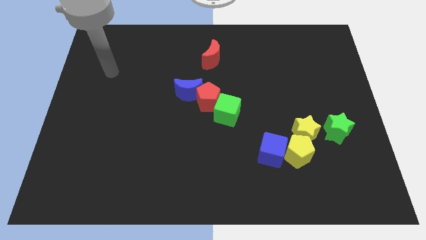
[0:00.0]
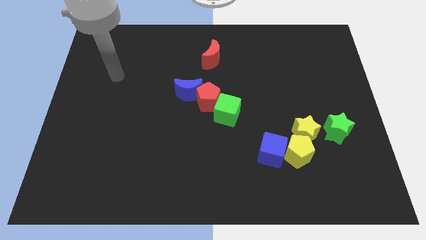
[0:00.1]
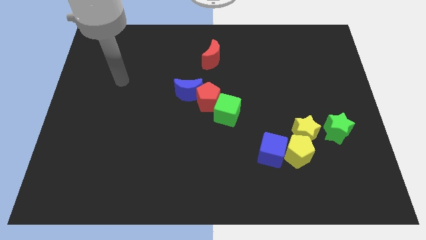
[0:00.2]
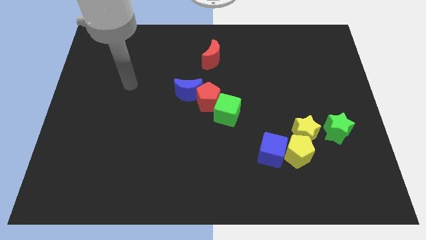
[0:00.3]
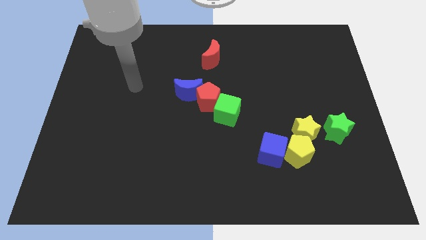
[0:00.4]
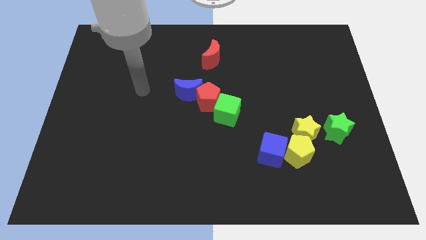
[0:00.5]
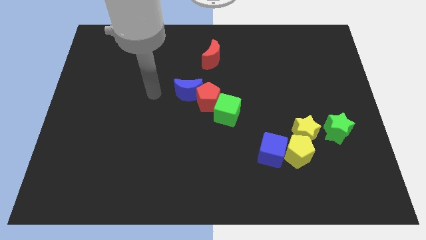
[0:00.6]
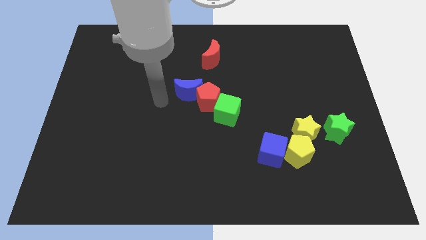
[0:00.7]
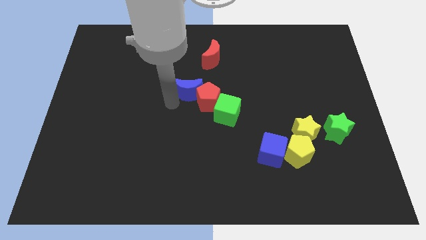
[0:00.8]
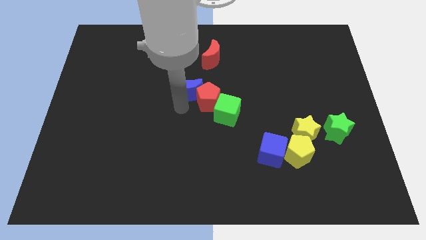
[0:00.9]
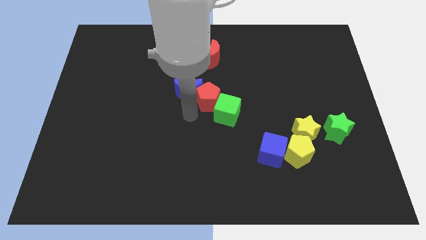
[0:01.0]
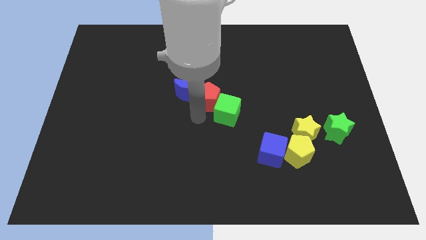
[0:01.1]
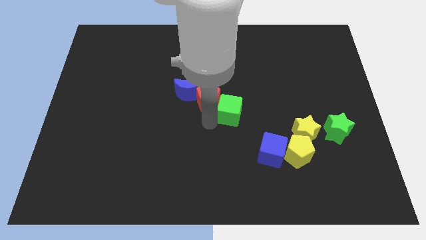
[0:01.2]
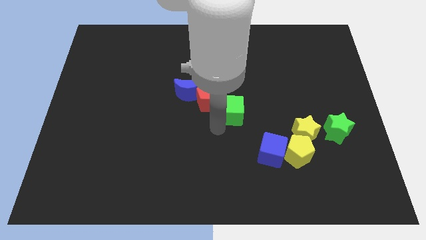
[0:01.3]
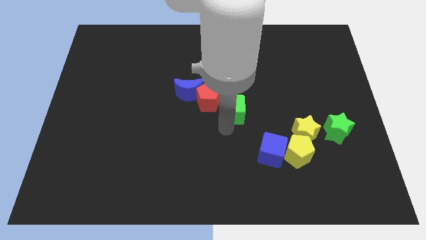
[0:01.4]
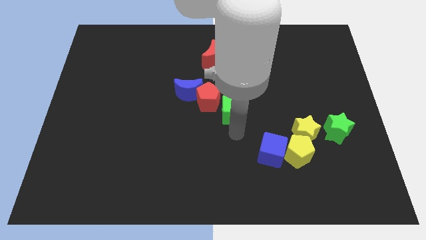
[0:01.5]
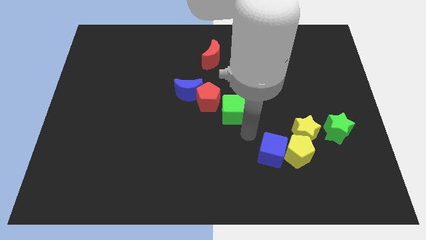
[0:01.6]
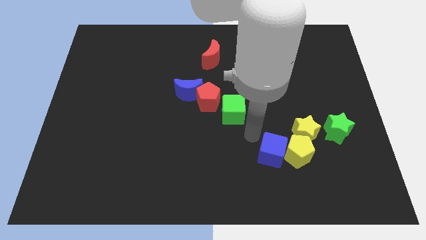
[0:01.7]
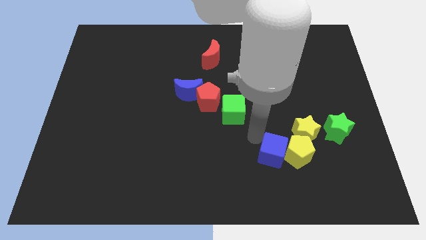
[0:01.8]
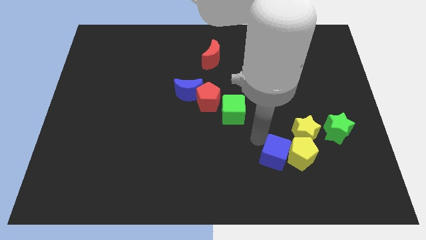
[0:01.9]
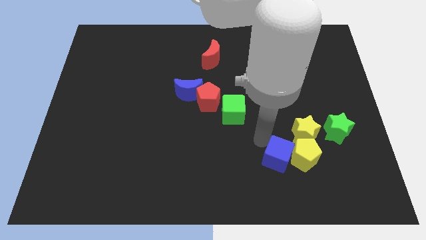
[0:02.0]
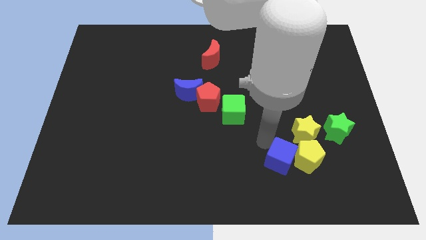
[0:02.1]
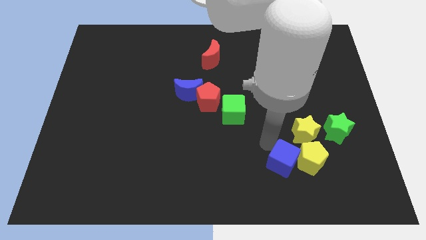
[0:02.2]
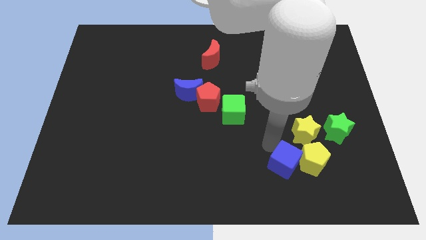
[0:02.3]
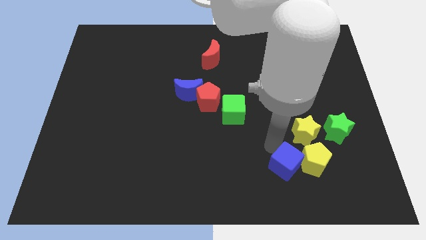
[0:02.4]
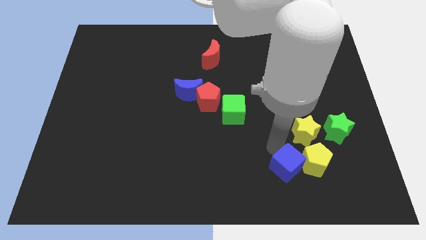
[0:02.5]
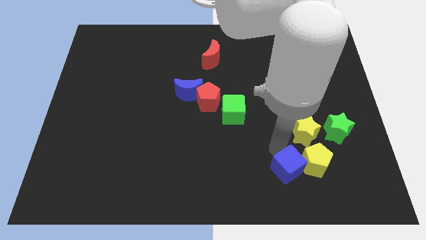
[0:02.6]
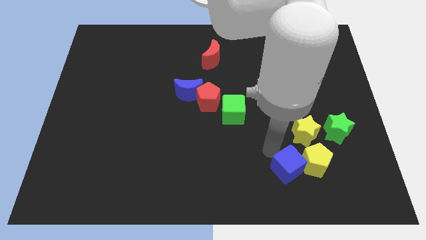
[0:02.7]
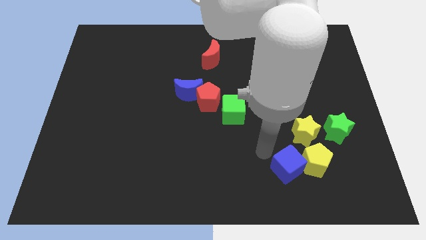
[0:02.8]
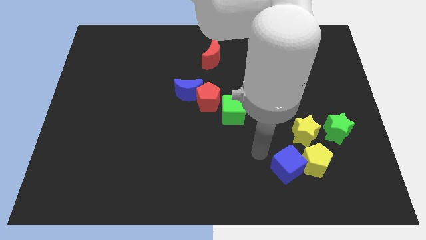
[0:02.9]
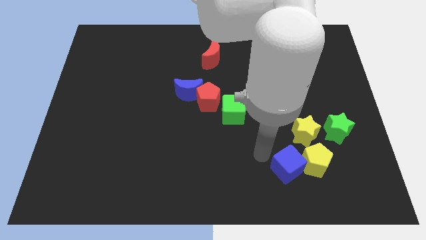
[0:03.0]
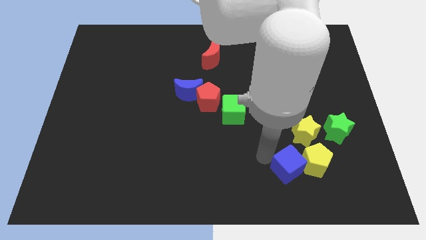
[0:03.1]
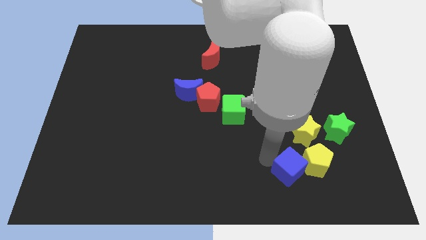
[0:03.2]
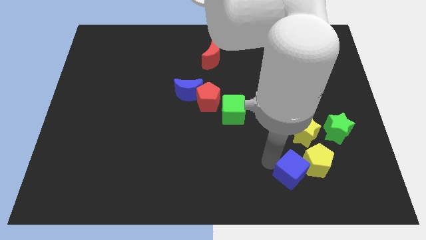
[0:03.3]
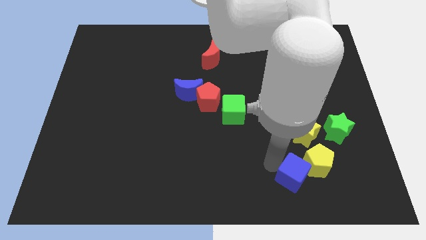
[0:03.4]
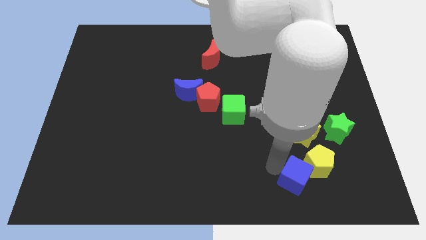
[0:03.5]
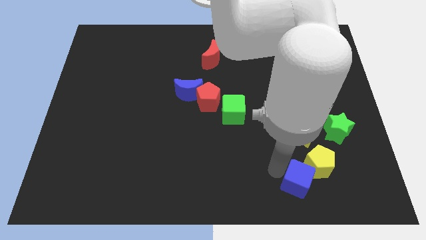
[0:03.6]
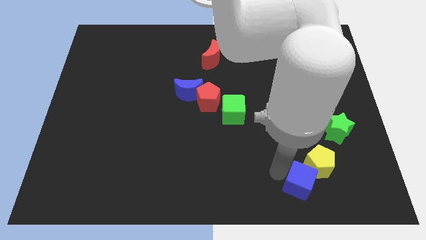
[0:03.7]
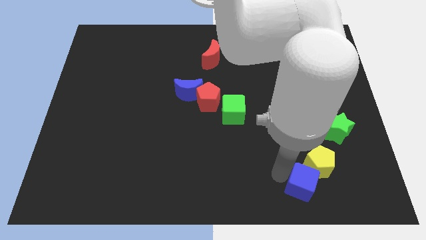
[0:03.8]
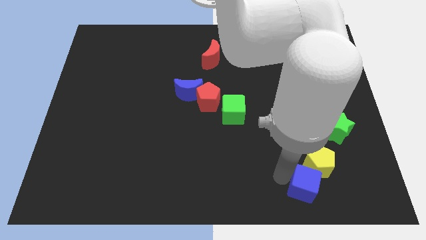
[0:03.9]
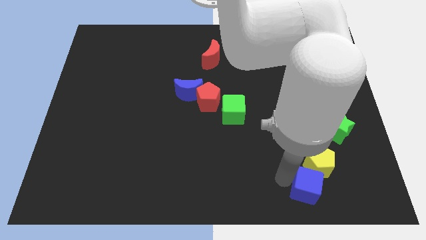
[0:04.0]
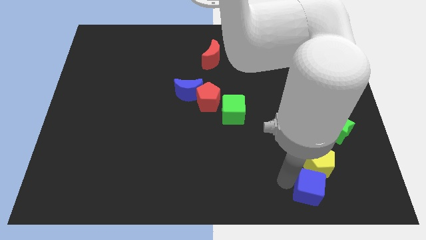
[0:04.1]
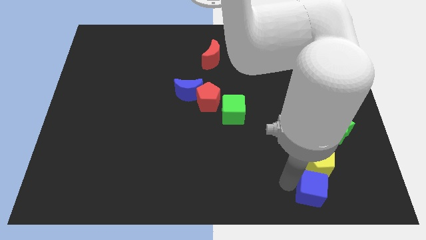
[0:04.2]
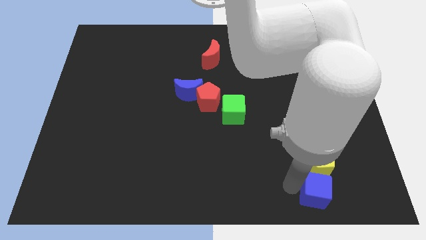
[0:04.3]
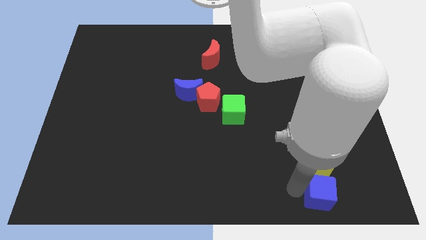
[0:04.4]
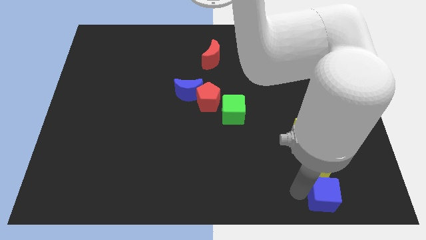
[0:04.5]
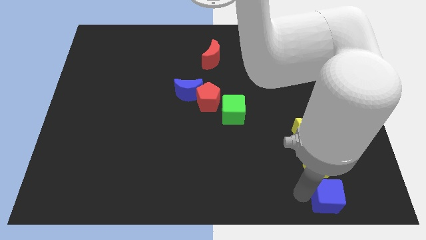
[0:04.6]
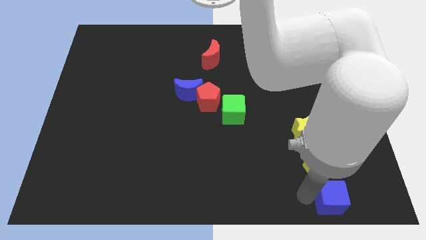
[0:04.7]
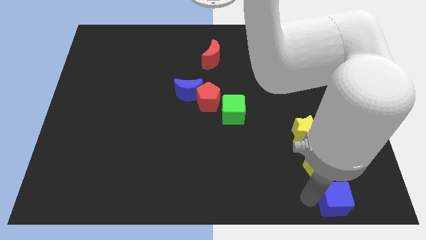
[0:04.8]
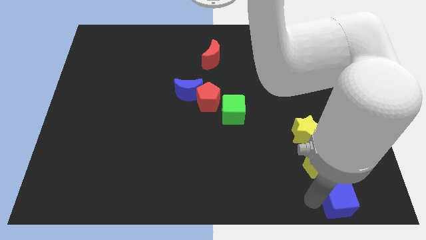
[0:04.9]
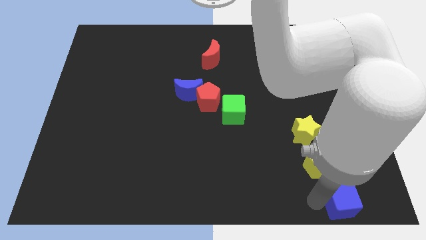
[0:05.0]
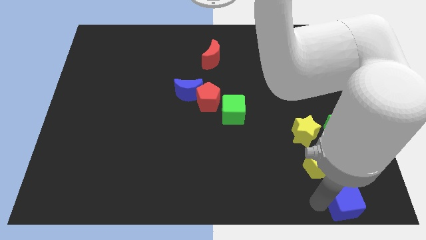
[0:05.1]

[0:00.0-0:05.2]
move the blue cube to the bottom right

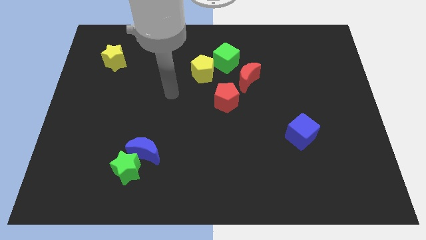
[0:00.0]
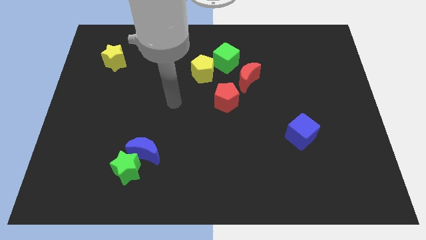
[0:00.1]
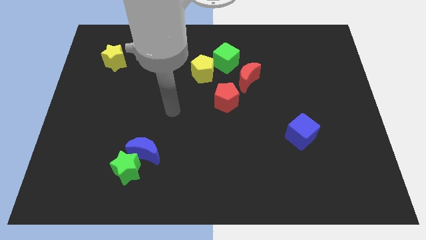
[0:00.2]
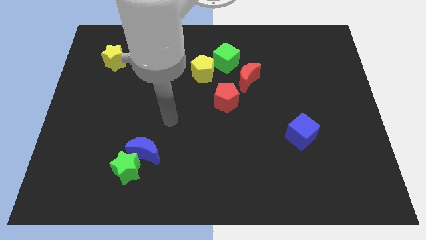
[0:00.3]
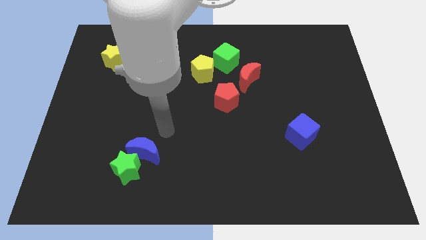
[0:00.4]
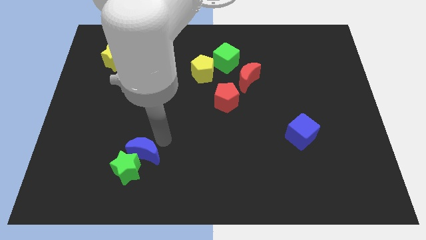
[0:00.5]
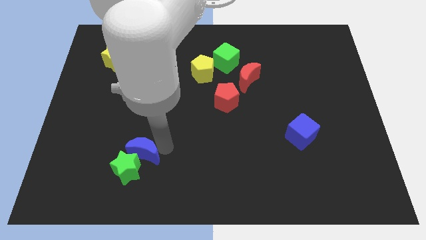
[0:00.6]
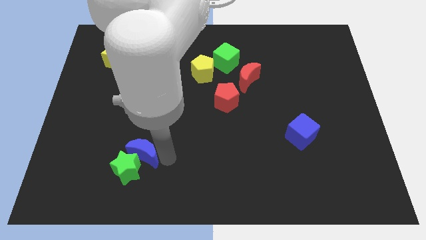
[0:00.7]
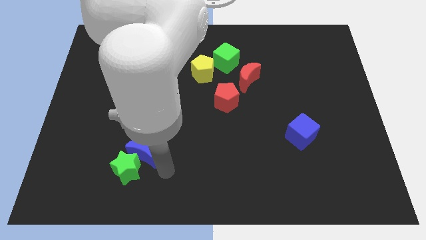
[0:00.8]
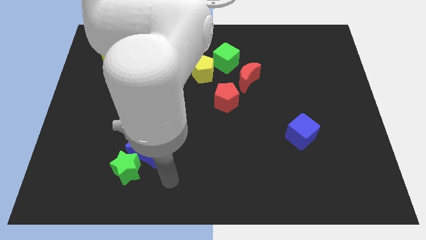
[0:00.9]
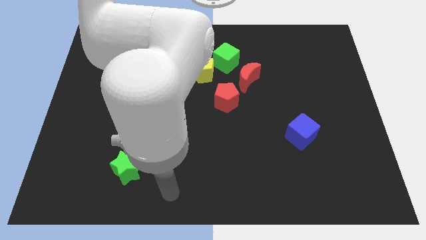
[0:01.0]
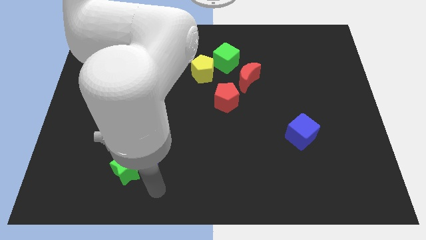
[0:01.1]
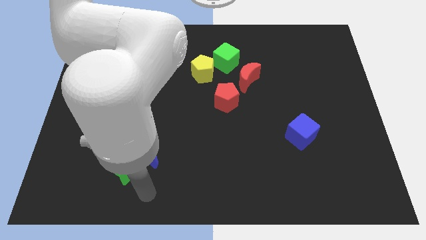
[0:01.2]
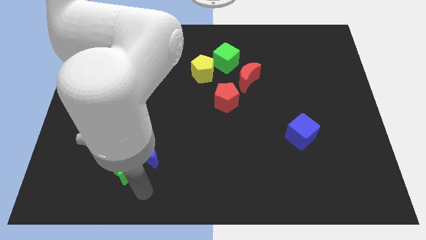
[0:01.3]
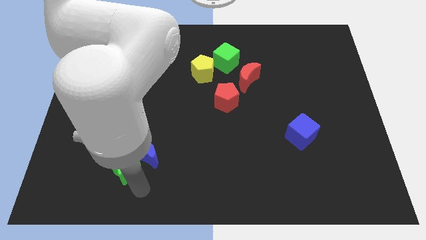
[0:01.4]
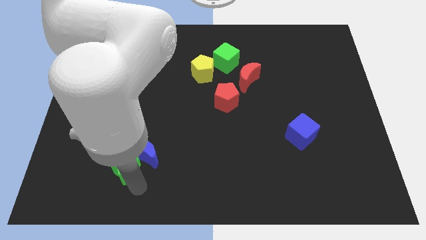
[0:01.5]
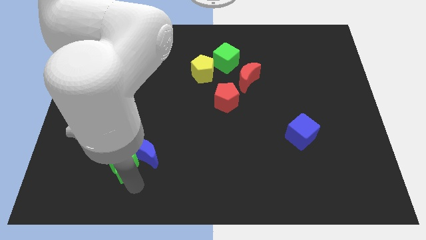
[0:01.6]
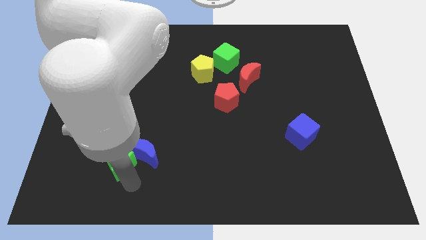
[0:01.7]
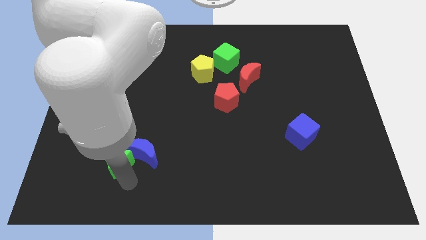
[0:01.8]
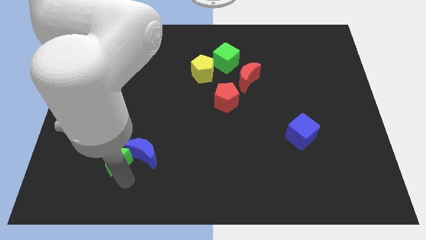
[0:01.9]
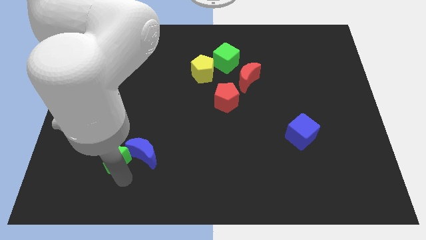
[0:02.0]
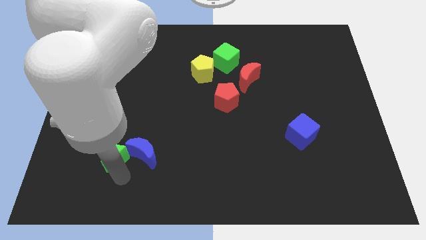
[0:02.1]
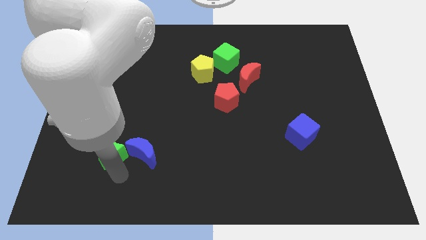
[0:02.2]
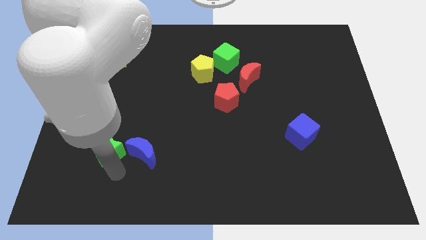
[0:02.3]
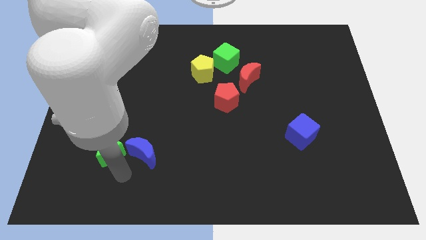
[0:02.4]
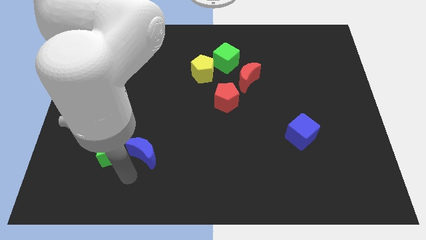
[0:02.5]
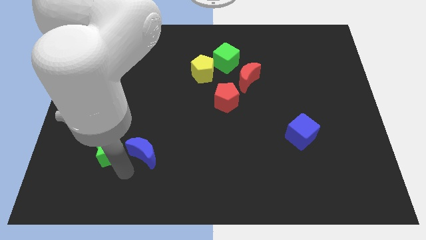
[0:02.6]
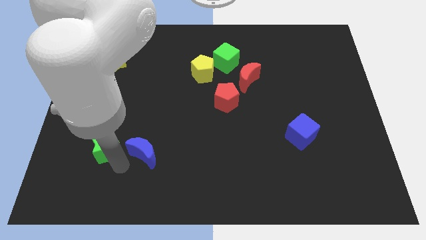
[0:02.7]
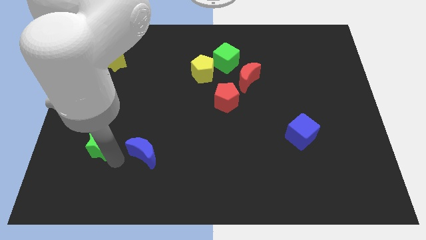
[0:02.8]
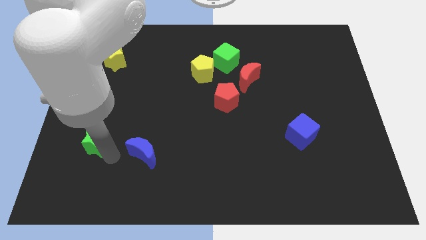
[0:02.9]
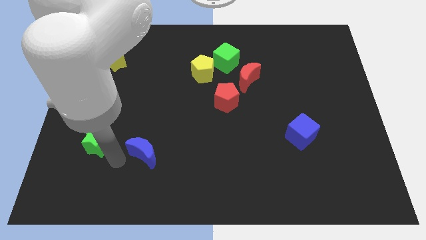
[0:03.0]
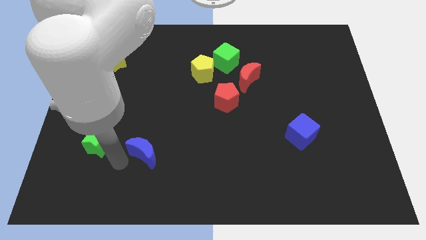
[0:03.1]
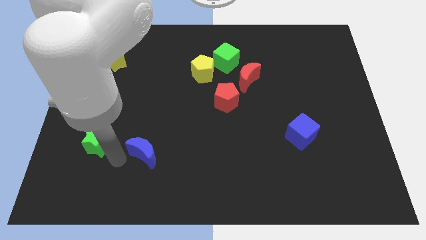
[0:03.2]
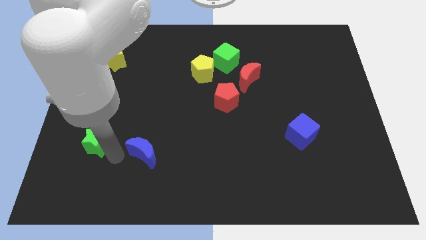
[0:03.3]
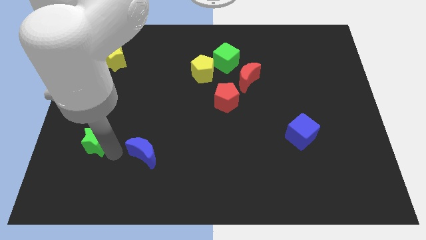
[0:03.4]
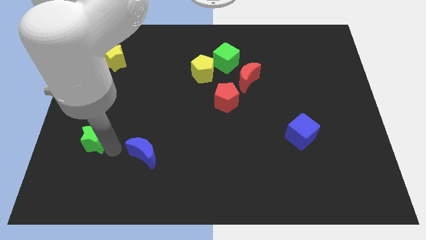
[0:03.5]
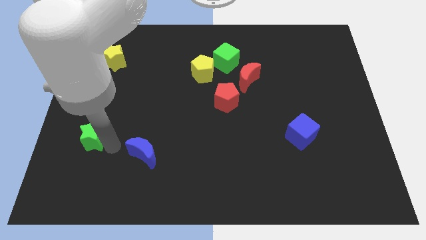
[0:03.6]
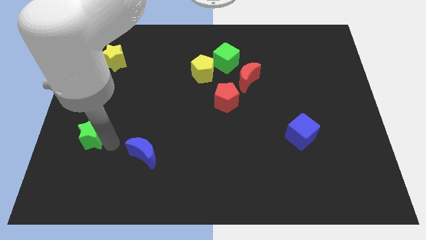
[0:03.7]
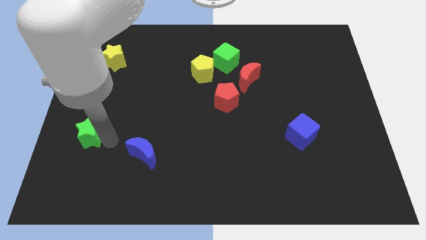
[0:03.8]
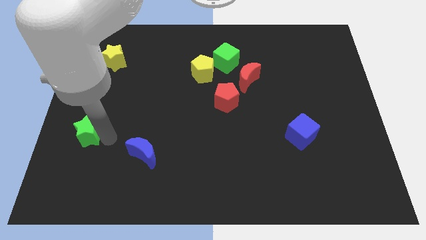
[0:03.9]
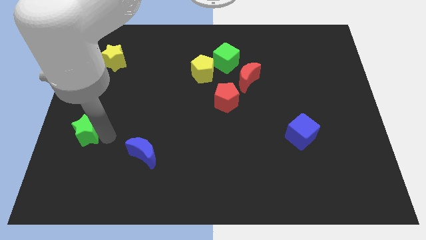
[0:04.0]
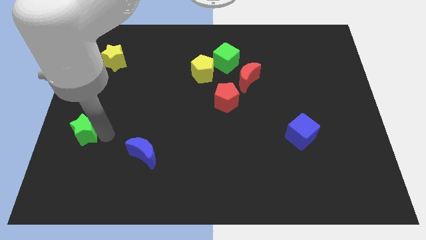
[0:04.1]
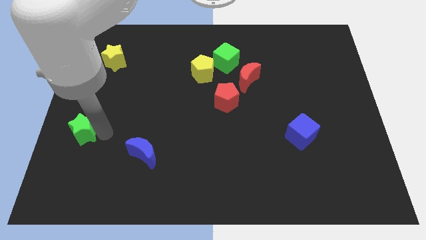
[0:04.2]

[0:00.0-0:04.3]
push the green star to the center left
